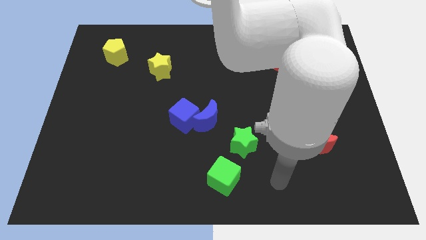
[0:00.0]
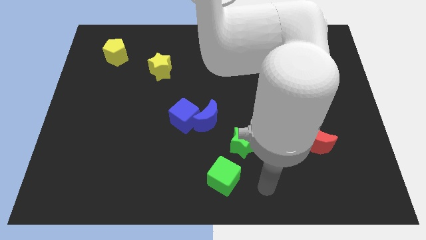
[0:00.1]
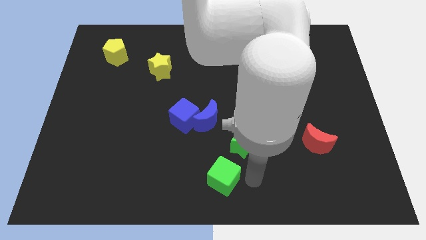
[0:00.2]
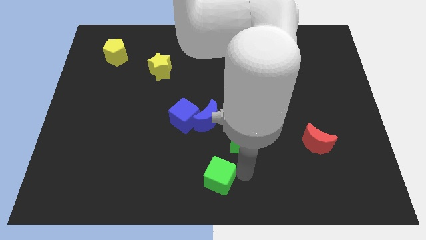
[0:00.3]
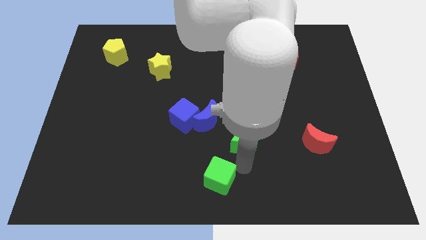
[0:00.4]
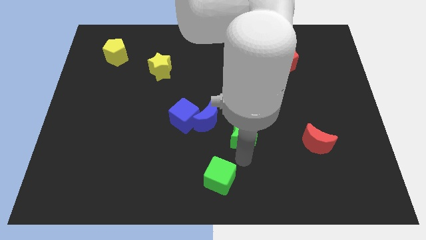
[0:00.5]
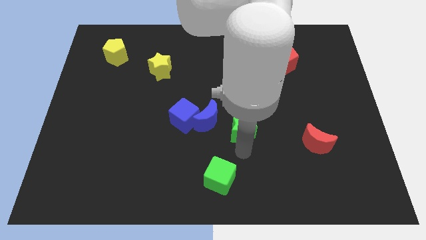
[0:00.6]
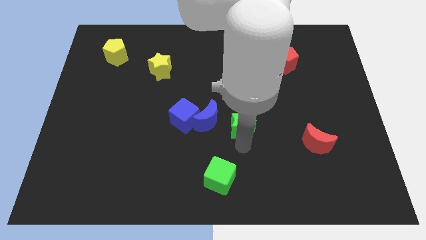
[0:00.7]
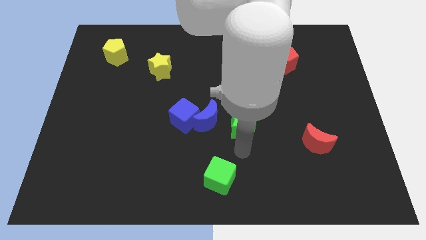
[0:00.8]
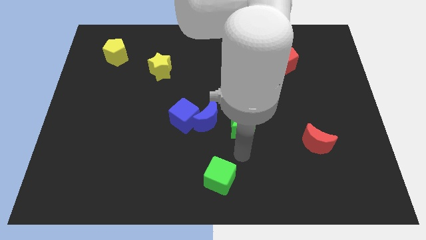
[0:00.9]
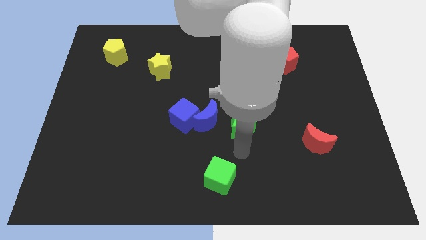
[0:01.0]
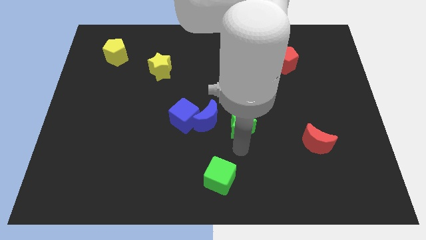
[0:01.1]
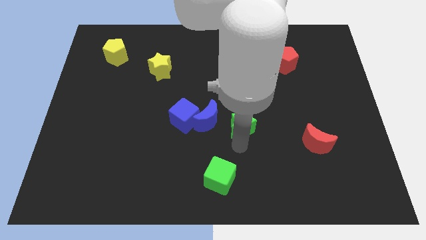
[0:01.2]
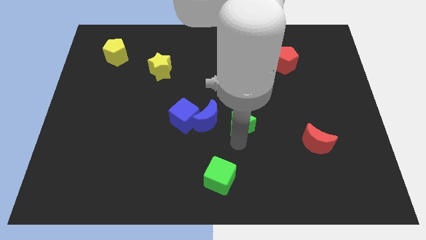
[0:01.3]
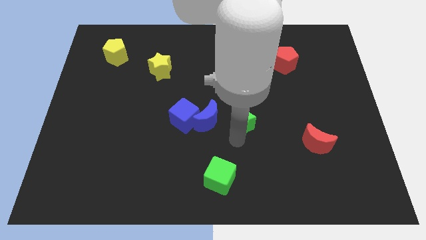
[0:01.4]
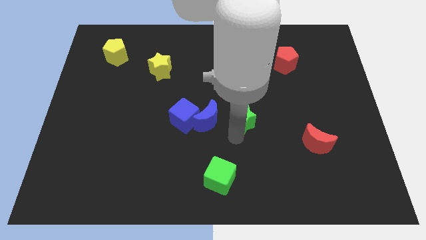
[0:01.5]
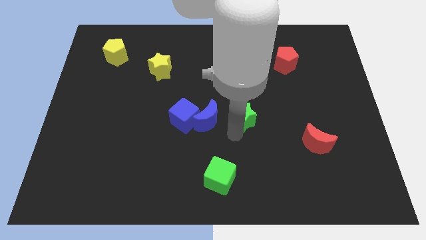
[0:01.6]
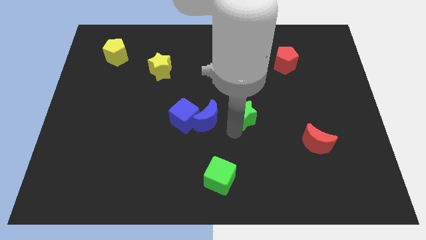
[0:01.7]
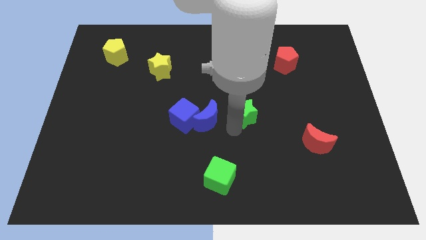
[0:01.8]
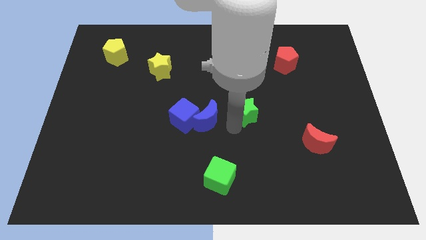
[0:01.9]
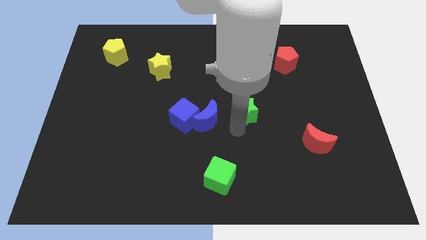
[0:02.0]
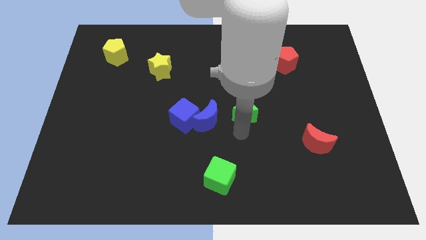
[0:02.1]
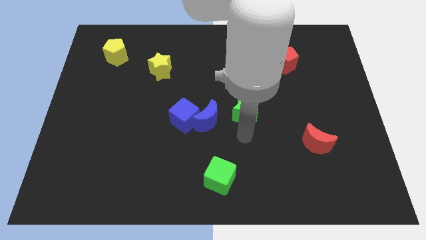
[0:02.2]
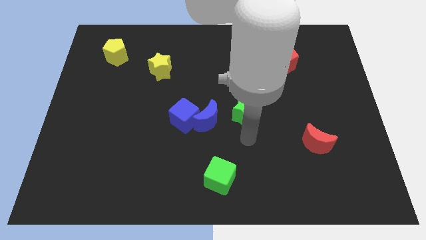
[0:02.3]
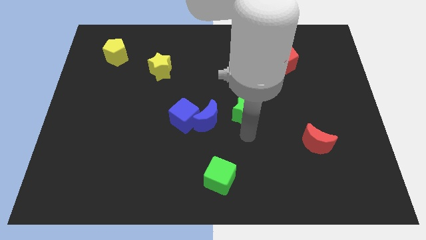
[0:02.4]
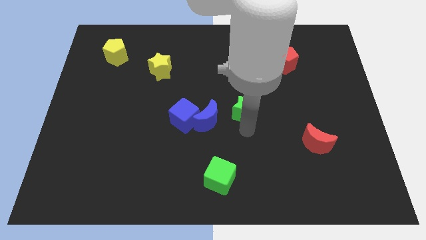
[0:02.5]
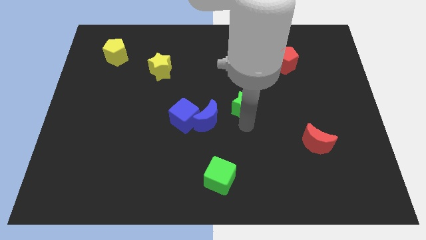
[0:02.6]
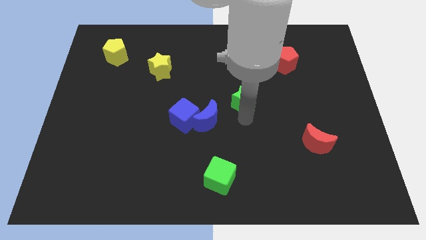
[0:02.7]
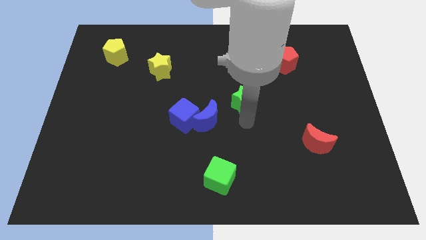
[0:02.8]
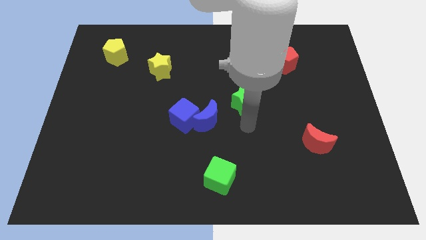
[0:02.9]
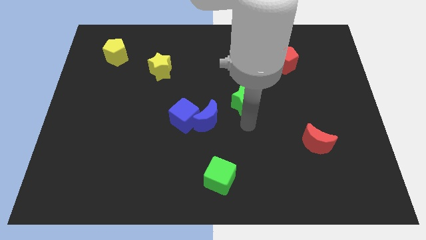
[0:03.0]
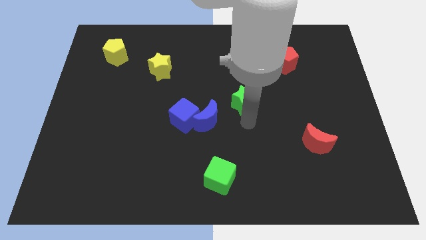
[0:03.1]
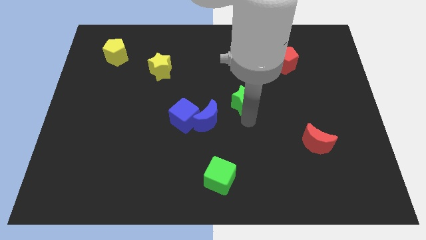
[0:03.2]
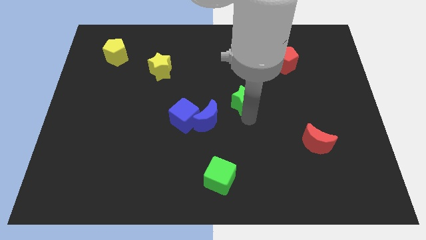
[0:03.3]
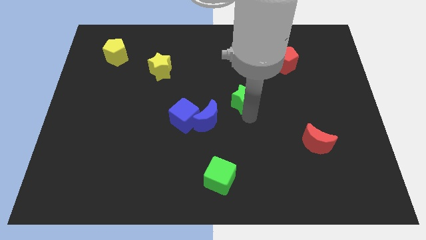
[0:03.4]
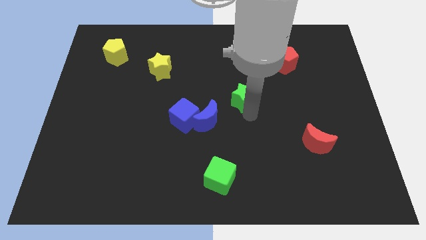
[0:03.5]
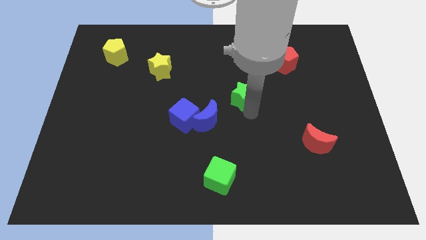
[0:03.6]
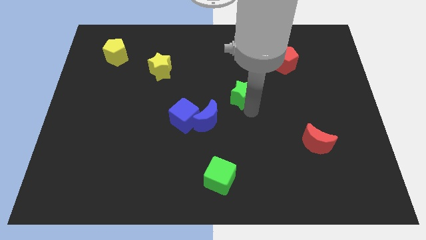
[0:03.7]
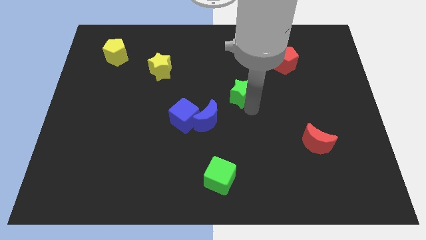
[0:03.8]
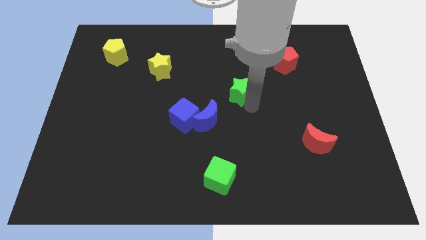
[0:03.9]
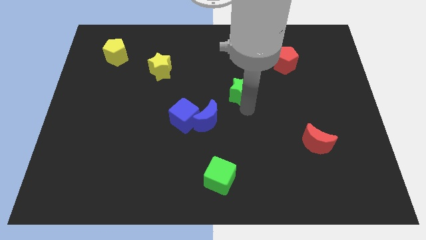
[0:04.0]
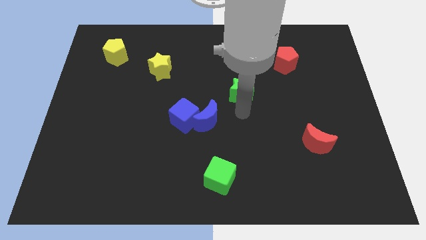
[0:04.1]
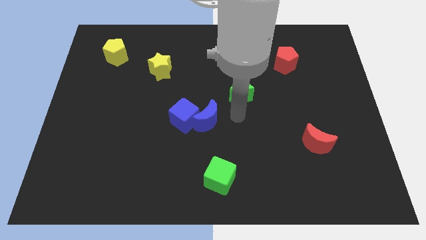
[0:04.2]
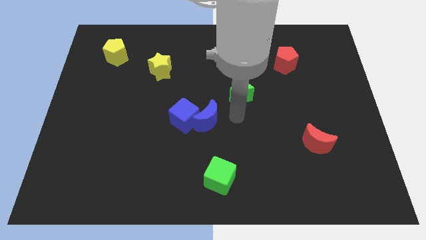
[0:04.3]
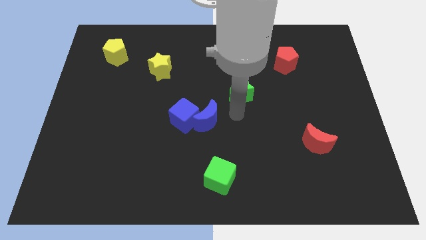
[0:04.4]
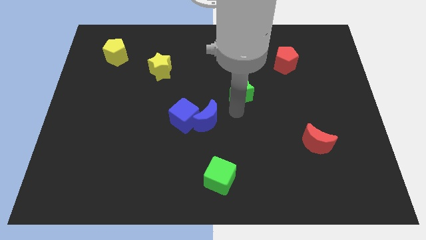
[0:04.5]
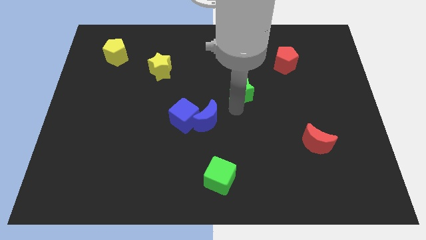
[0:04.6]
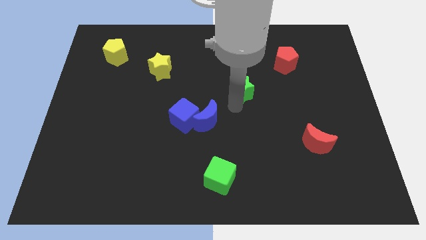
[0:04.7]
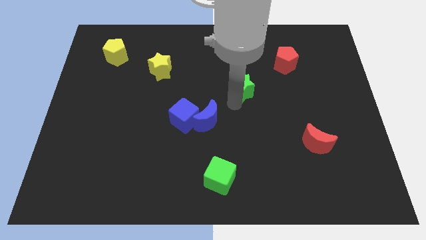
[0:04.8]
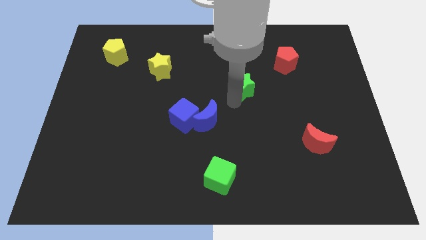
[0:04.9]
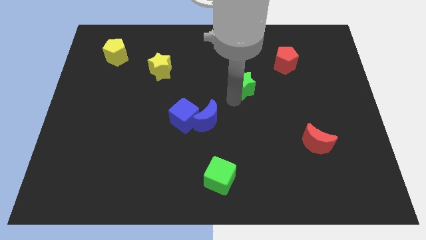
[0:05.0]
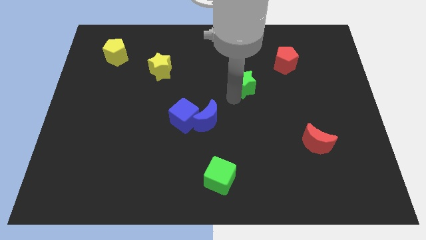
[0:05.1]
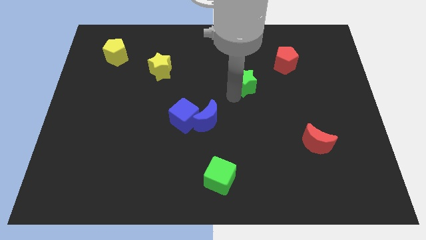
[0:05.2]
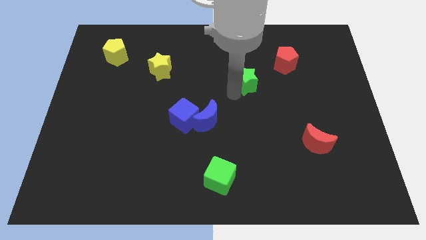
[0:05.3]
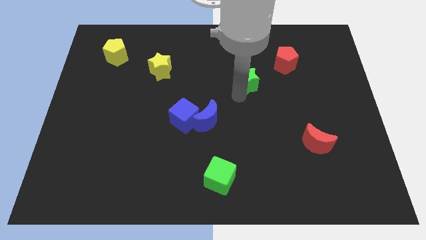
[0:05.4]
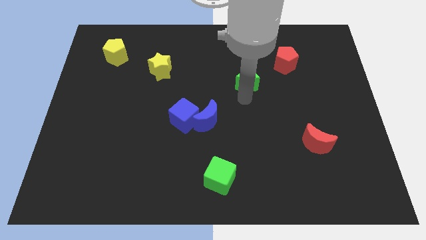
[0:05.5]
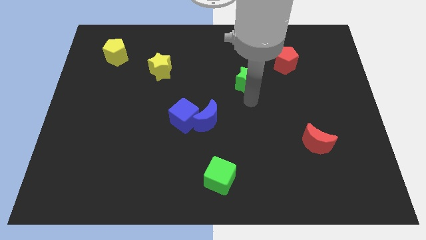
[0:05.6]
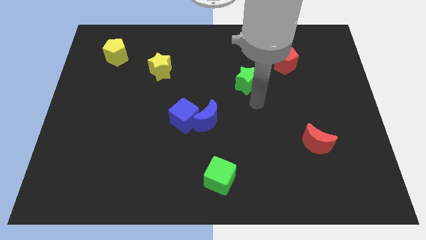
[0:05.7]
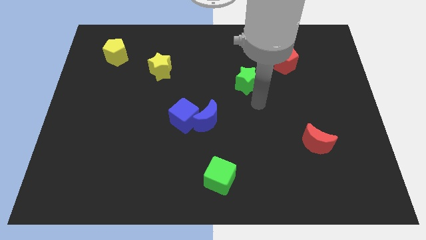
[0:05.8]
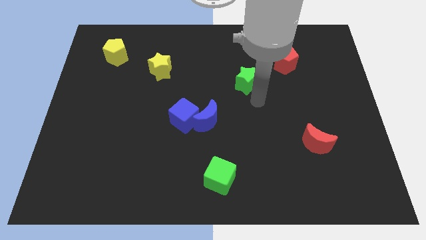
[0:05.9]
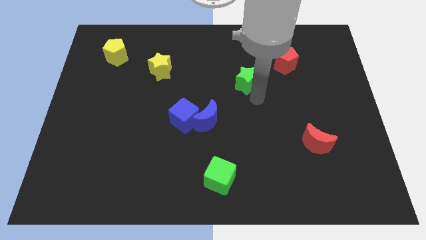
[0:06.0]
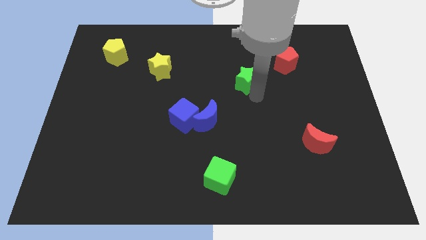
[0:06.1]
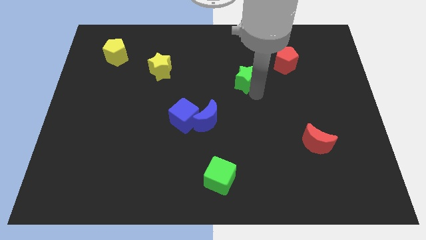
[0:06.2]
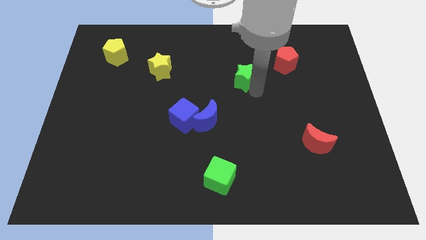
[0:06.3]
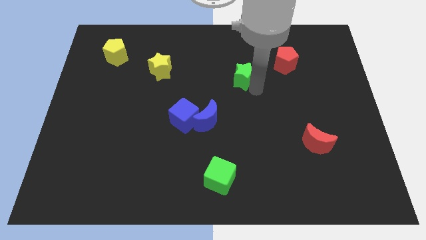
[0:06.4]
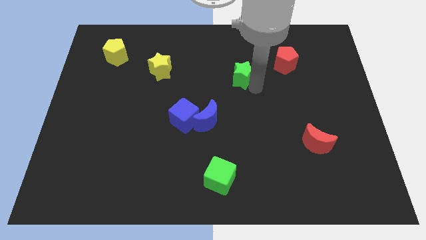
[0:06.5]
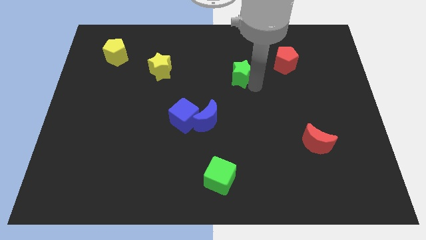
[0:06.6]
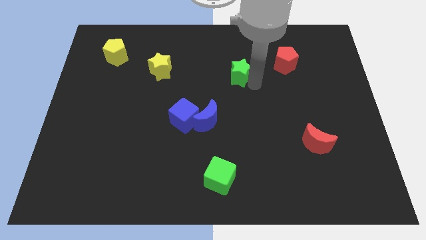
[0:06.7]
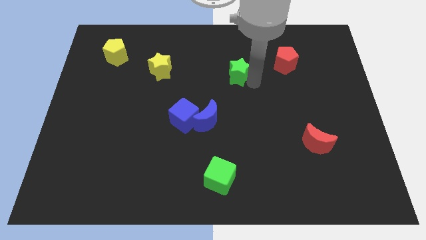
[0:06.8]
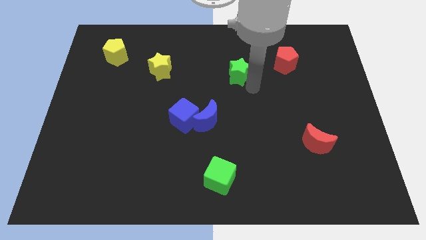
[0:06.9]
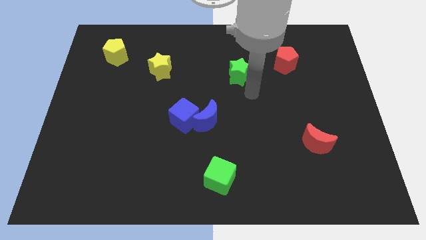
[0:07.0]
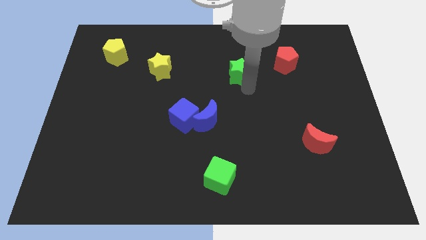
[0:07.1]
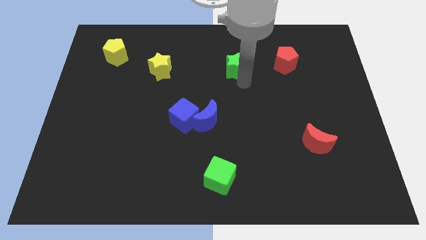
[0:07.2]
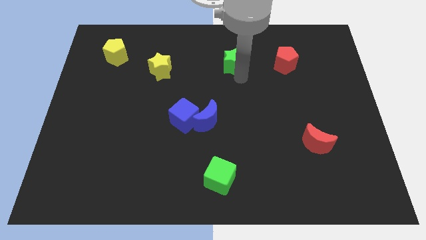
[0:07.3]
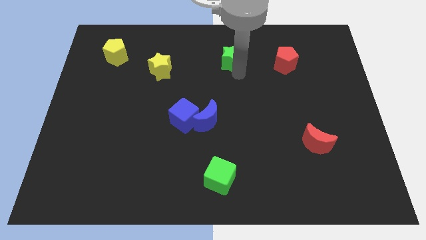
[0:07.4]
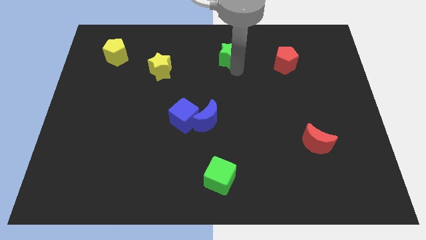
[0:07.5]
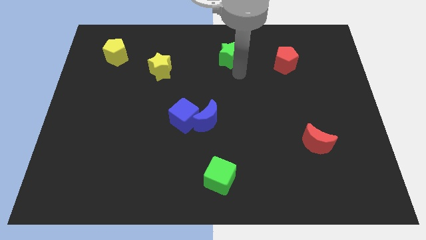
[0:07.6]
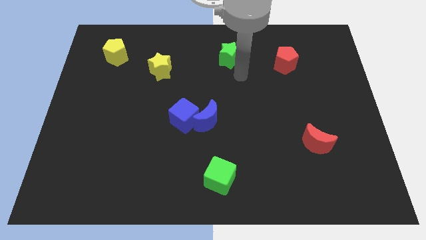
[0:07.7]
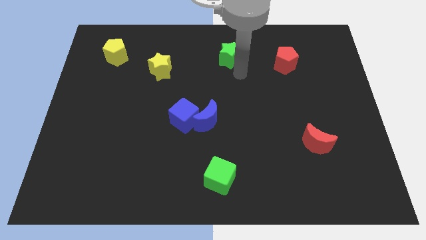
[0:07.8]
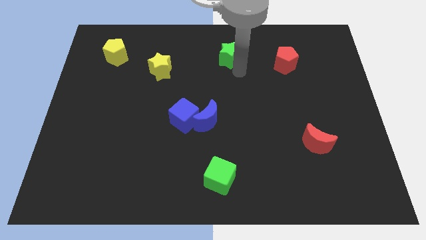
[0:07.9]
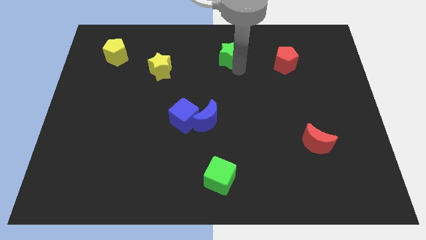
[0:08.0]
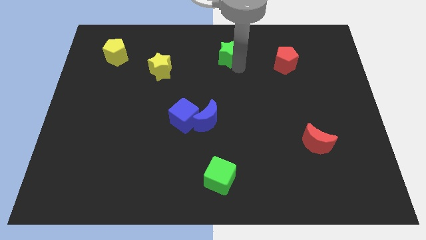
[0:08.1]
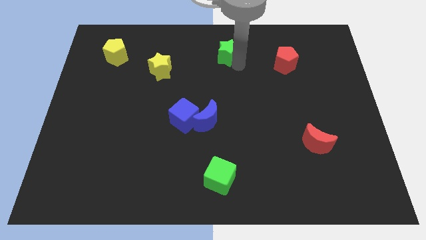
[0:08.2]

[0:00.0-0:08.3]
slide the green star to the top side
